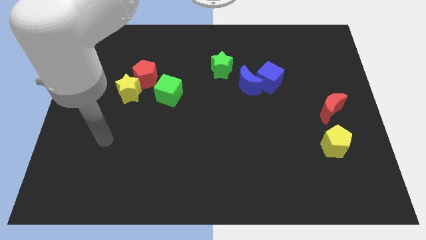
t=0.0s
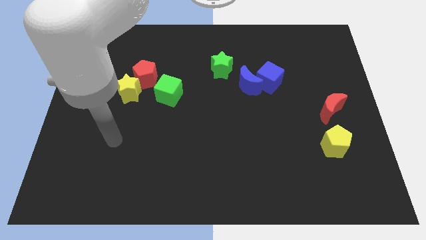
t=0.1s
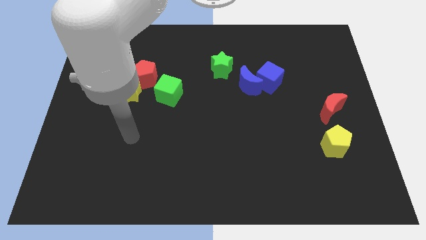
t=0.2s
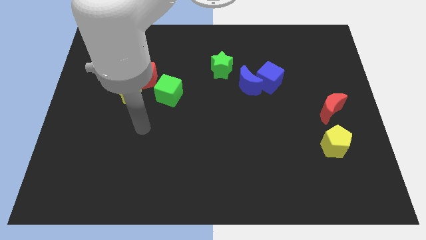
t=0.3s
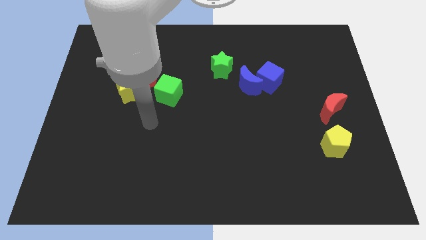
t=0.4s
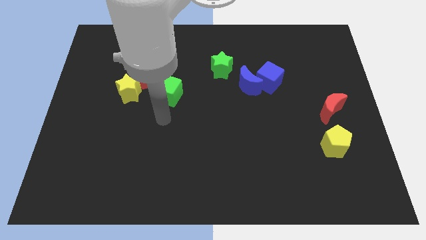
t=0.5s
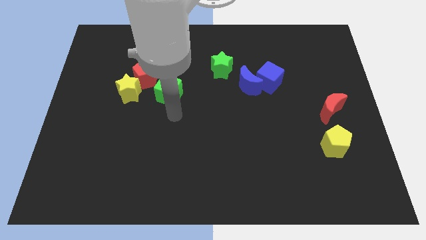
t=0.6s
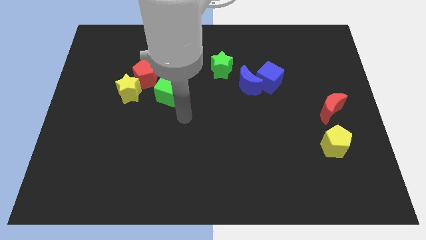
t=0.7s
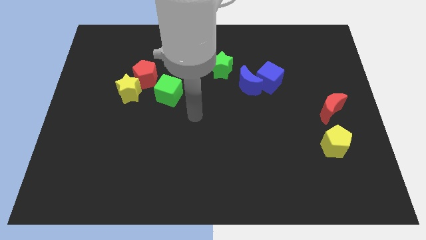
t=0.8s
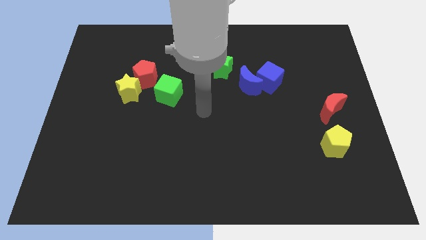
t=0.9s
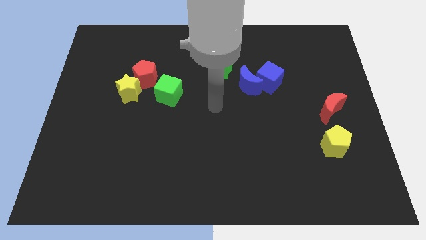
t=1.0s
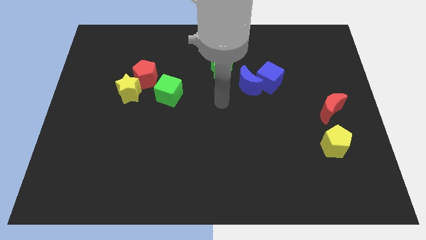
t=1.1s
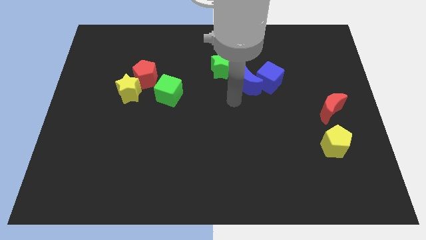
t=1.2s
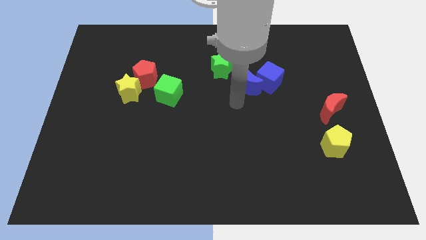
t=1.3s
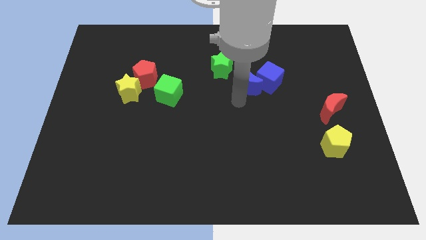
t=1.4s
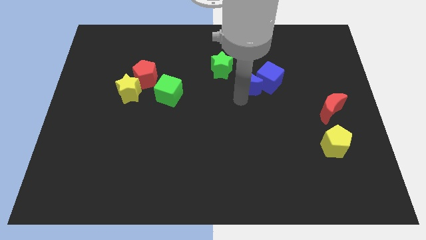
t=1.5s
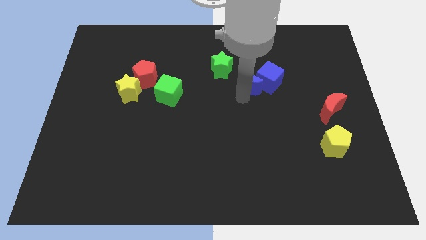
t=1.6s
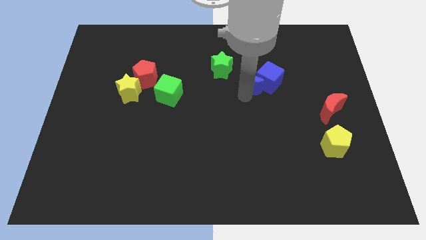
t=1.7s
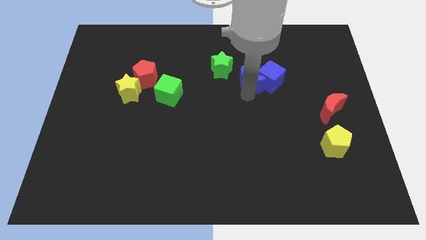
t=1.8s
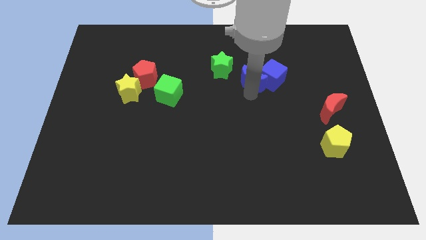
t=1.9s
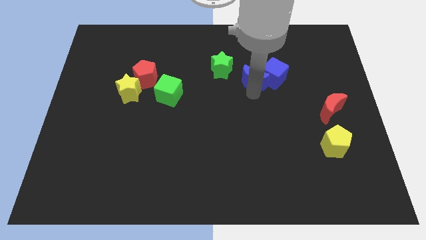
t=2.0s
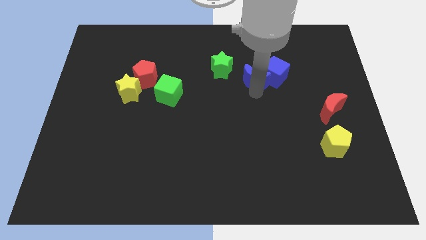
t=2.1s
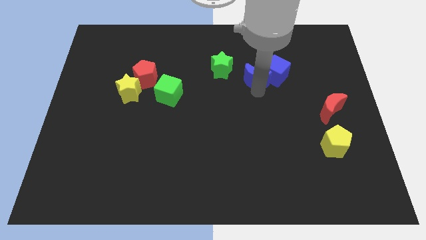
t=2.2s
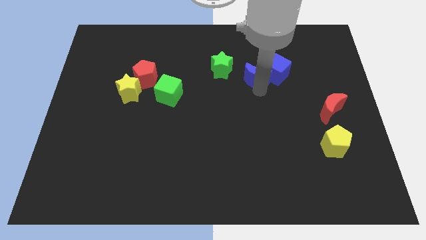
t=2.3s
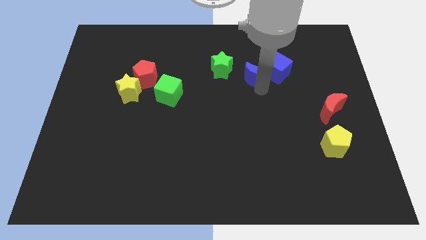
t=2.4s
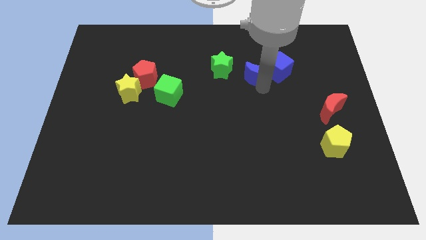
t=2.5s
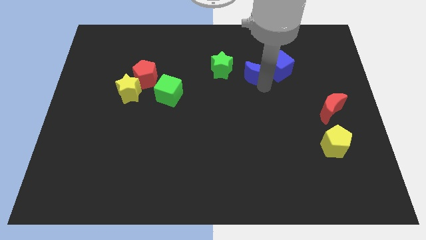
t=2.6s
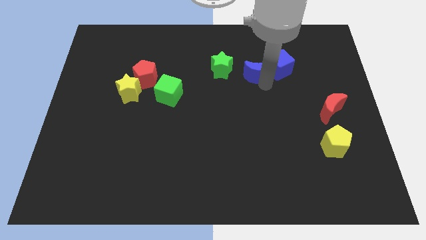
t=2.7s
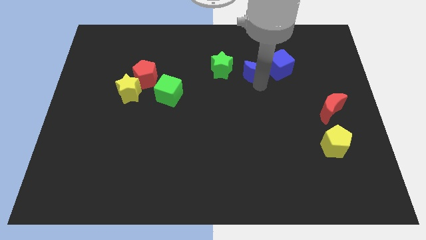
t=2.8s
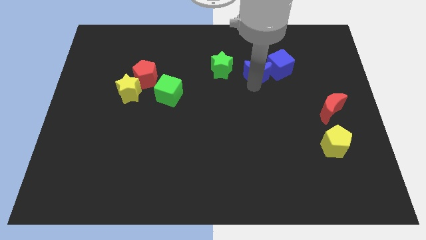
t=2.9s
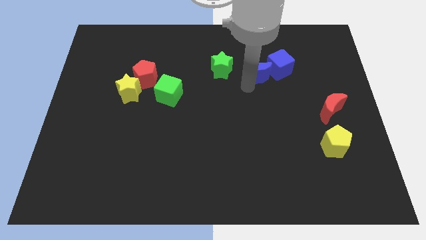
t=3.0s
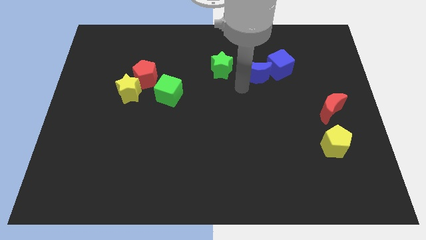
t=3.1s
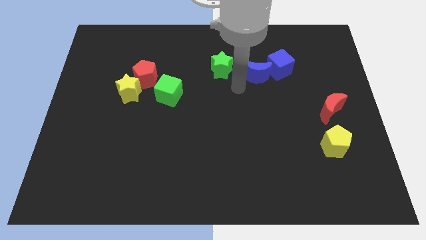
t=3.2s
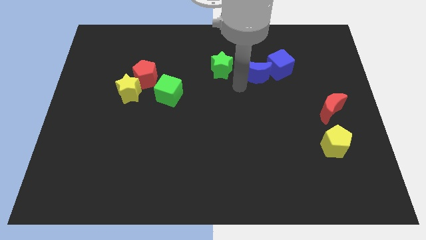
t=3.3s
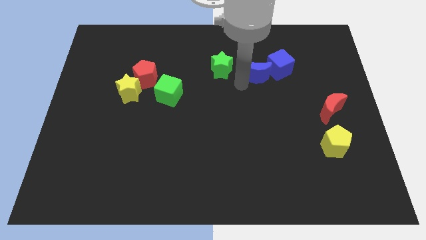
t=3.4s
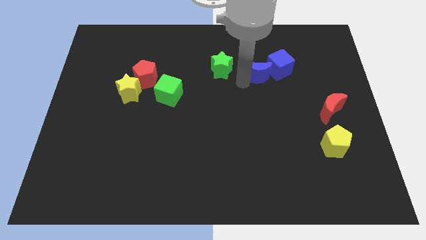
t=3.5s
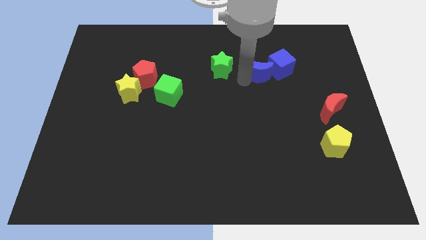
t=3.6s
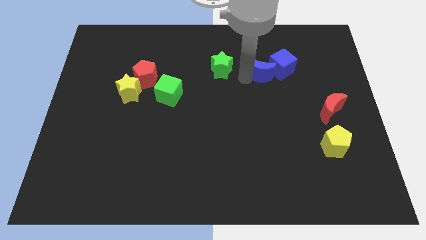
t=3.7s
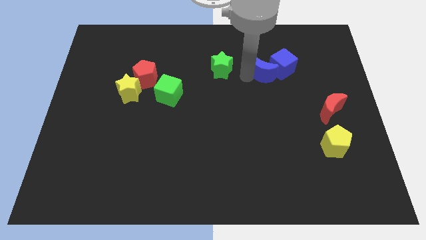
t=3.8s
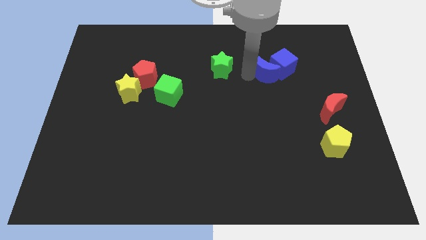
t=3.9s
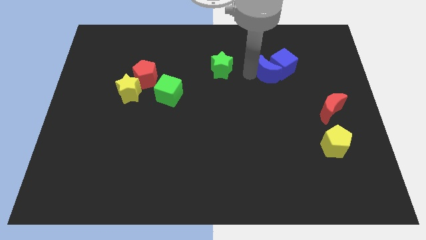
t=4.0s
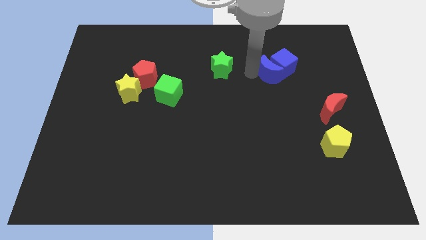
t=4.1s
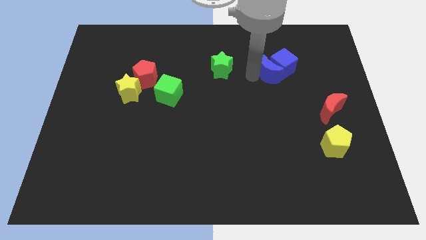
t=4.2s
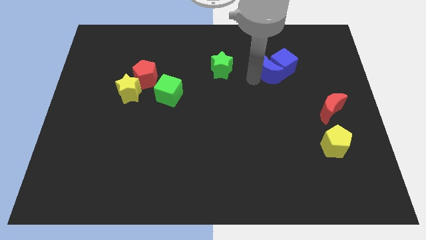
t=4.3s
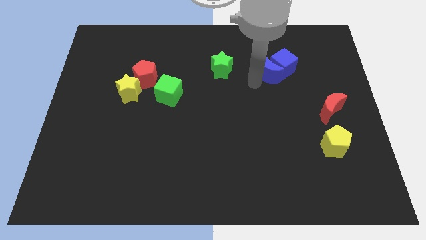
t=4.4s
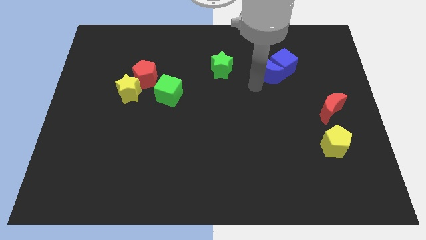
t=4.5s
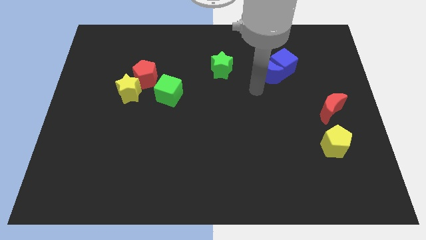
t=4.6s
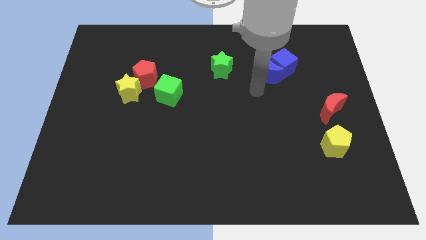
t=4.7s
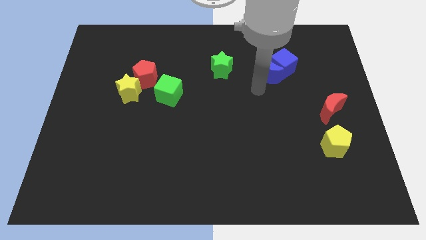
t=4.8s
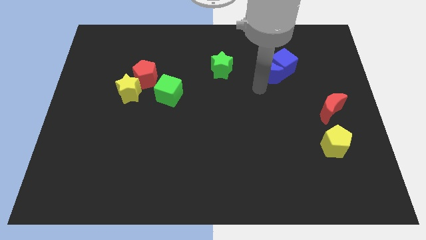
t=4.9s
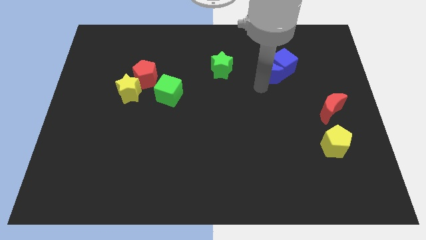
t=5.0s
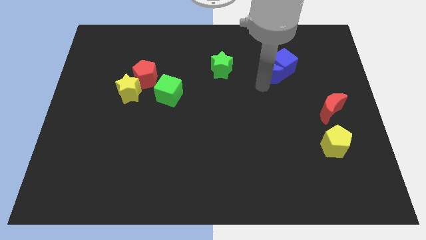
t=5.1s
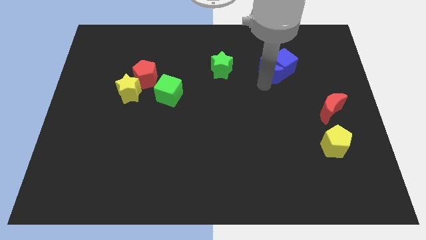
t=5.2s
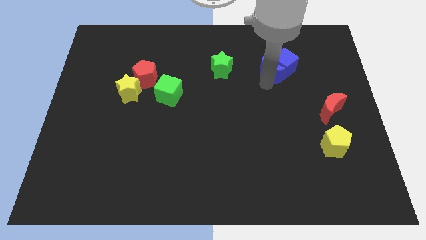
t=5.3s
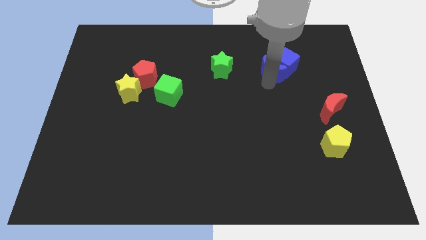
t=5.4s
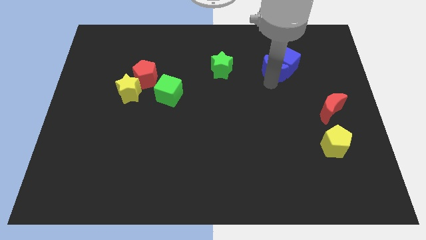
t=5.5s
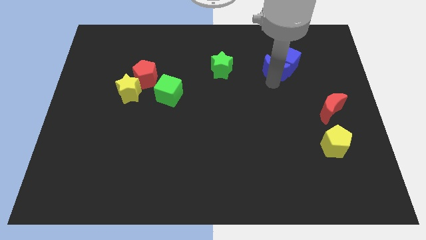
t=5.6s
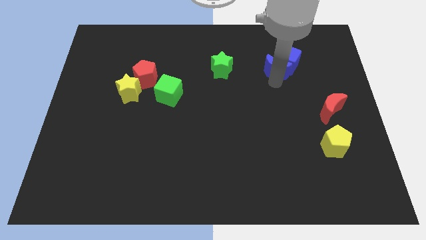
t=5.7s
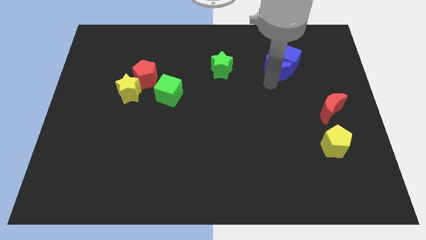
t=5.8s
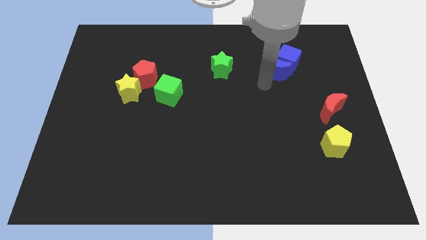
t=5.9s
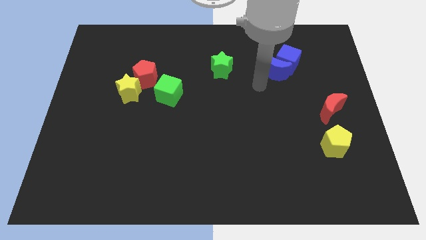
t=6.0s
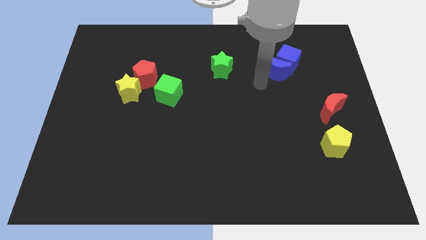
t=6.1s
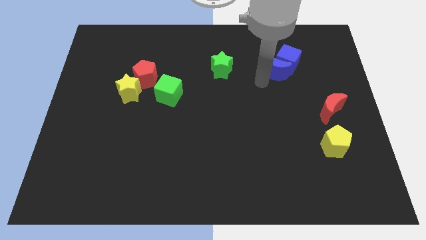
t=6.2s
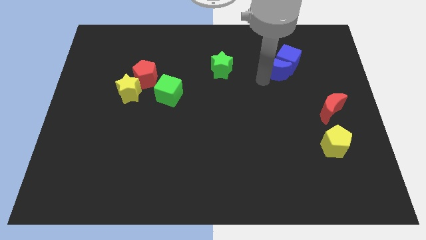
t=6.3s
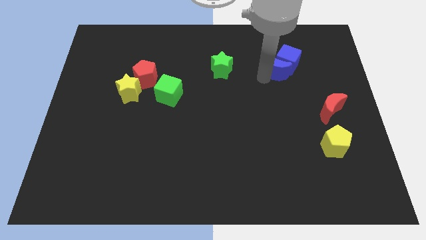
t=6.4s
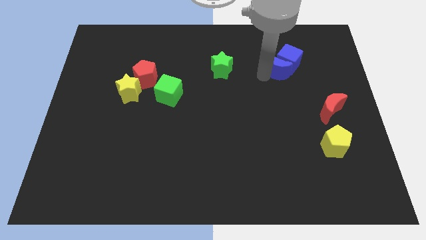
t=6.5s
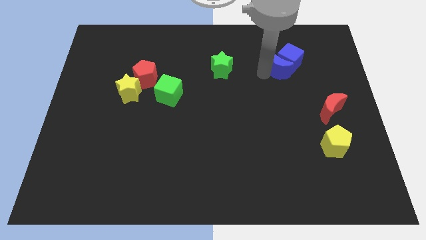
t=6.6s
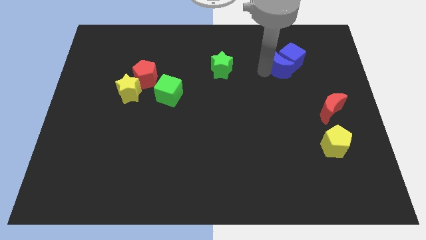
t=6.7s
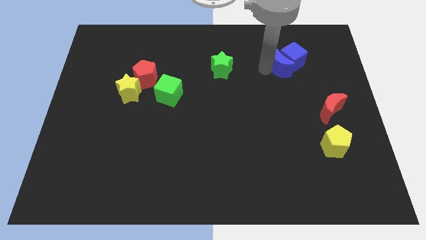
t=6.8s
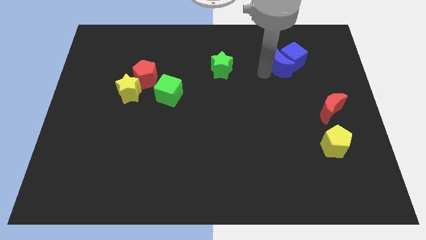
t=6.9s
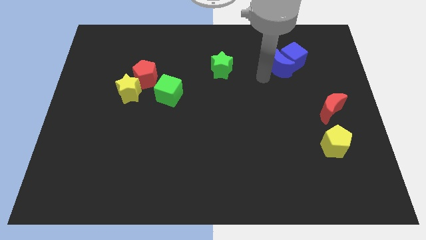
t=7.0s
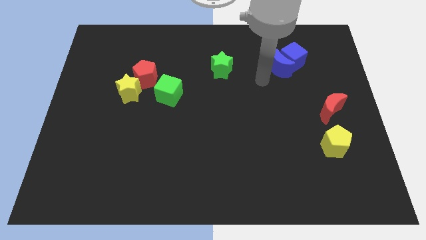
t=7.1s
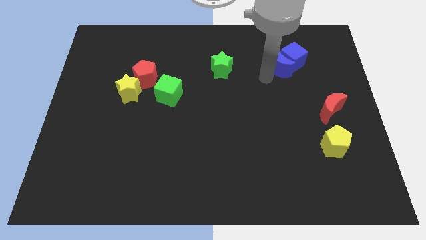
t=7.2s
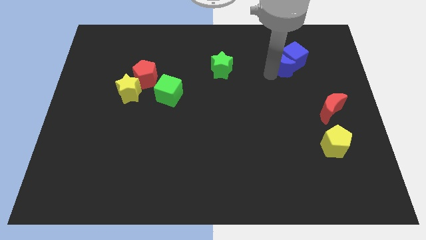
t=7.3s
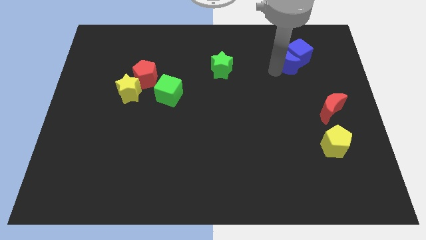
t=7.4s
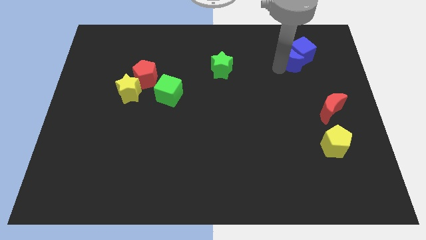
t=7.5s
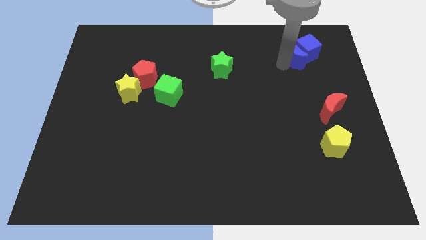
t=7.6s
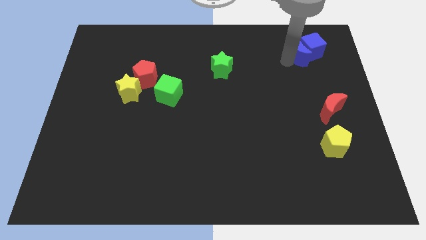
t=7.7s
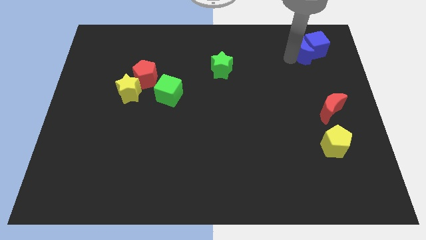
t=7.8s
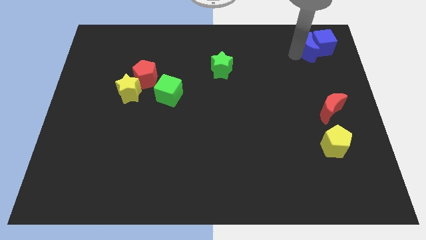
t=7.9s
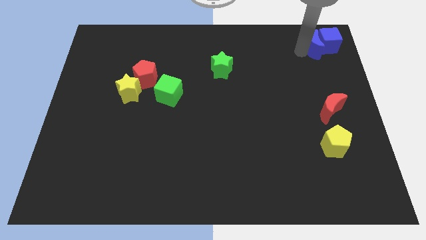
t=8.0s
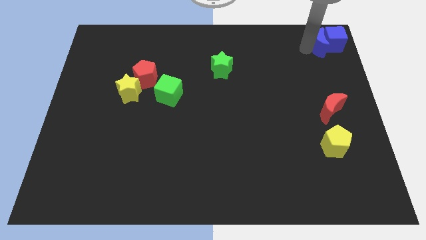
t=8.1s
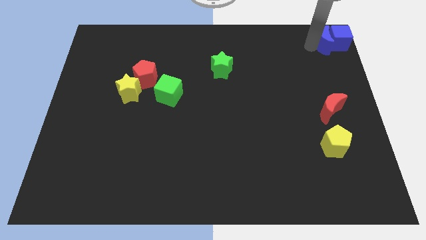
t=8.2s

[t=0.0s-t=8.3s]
push the blue moon to the top right corner
